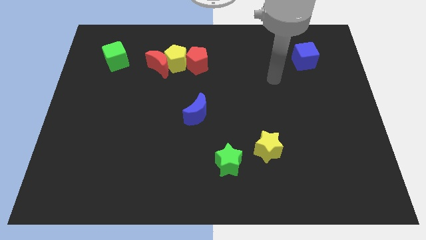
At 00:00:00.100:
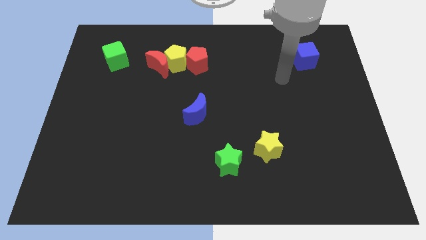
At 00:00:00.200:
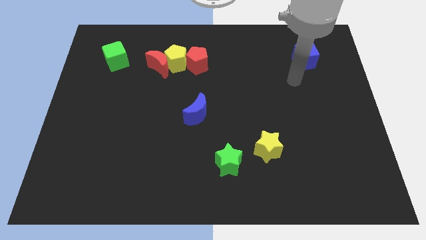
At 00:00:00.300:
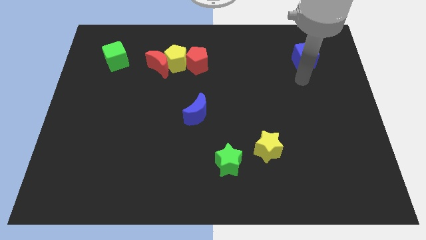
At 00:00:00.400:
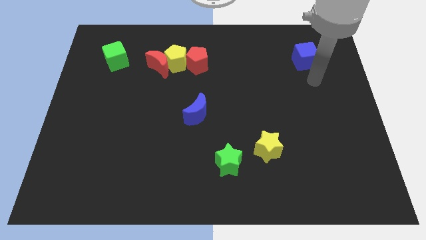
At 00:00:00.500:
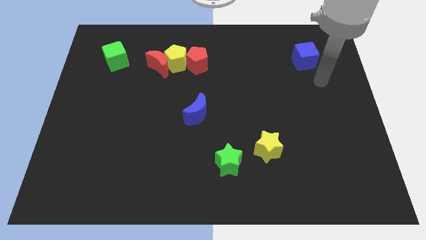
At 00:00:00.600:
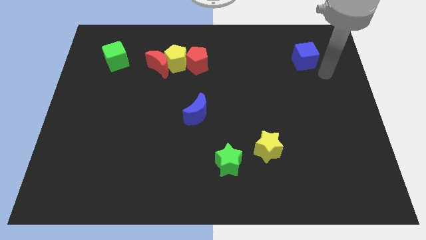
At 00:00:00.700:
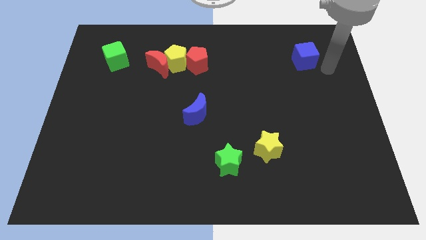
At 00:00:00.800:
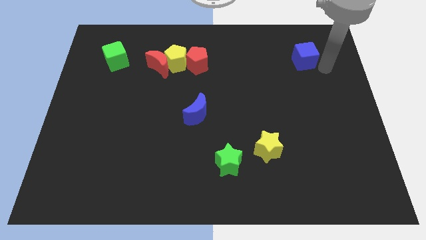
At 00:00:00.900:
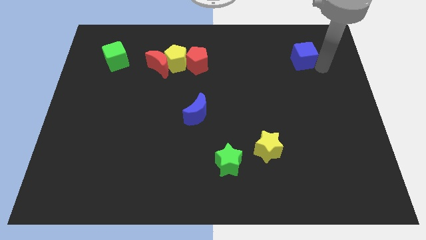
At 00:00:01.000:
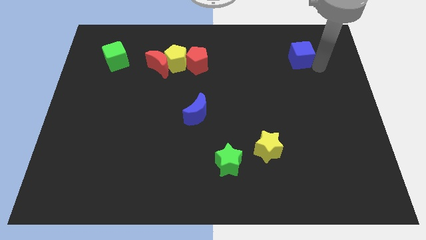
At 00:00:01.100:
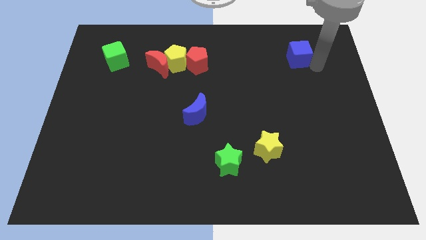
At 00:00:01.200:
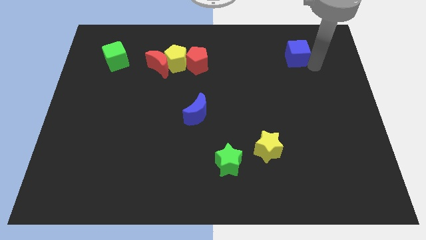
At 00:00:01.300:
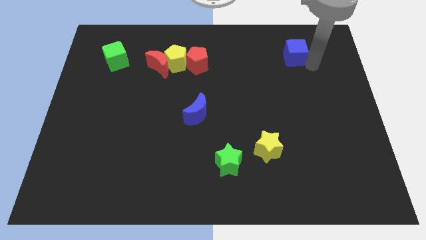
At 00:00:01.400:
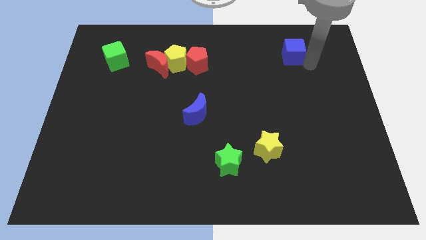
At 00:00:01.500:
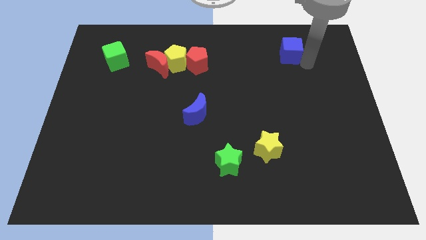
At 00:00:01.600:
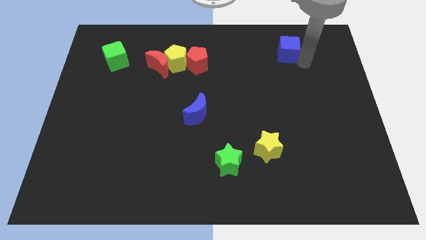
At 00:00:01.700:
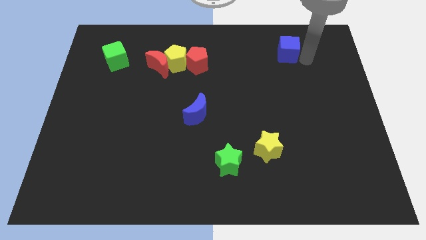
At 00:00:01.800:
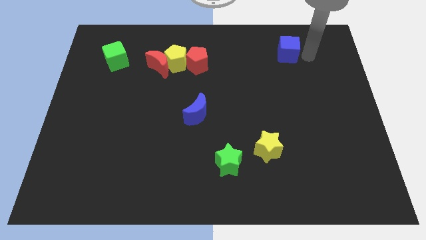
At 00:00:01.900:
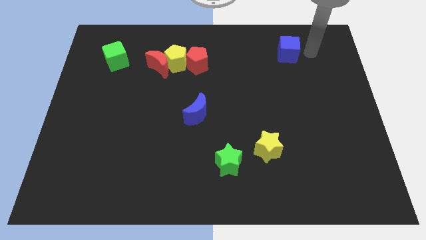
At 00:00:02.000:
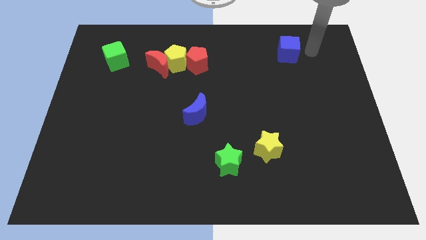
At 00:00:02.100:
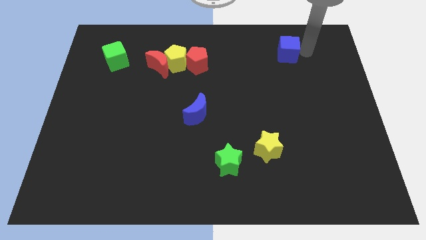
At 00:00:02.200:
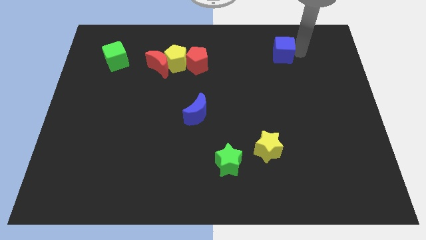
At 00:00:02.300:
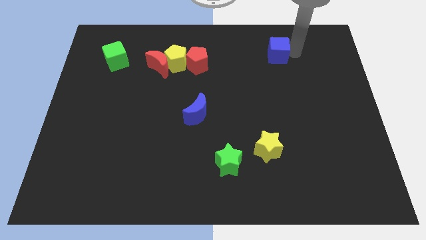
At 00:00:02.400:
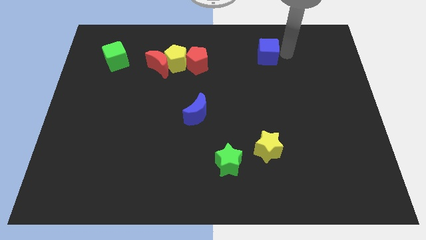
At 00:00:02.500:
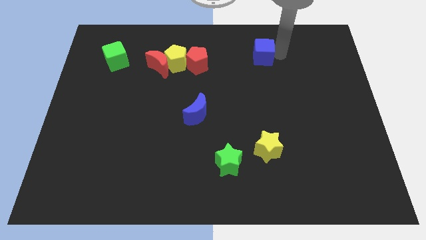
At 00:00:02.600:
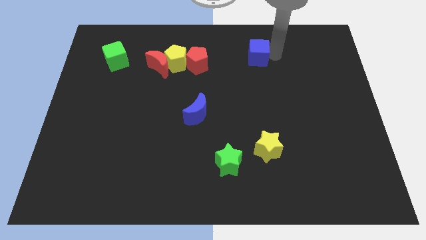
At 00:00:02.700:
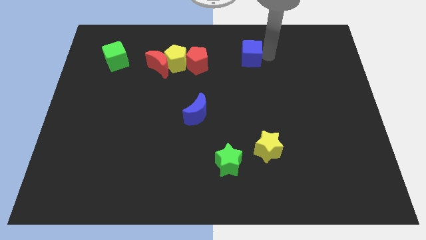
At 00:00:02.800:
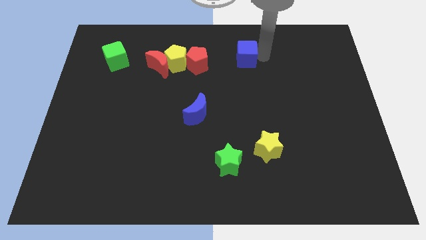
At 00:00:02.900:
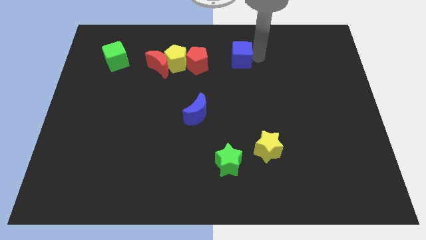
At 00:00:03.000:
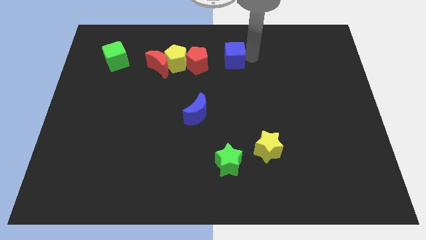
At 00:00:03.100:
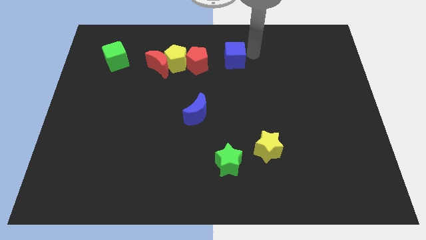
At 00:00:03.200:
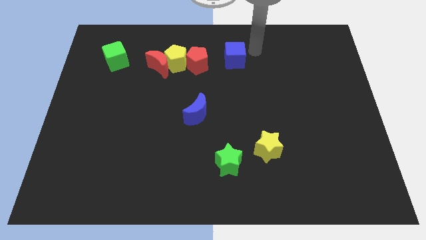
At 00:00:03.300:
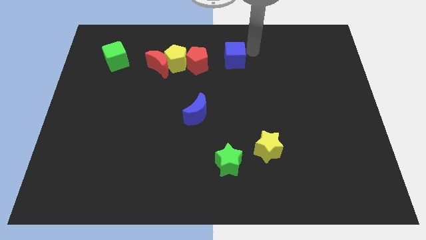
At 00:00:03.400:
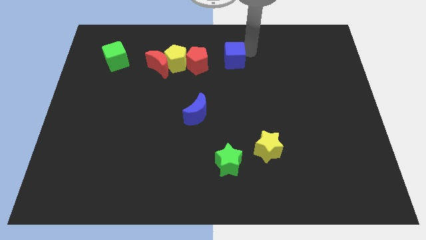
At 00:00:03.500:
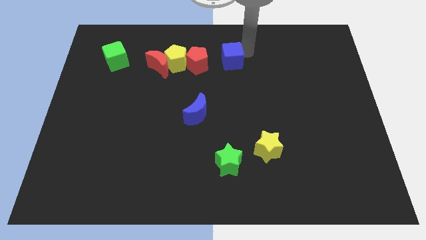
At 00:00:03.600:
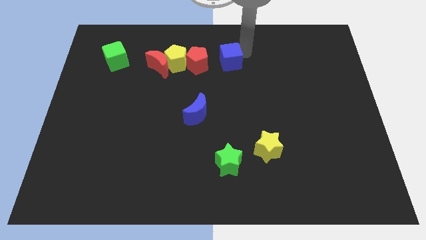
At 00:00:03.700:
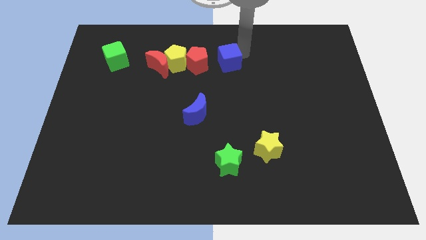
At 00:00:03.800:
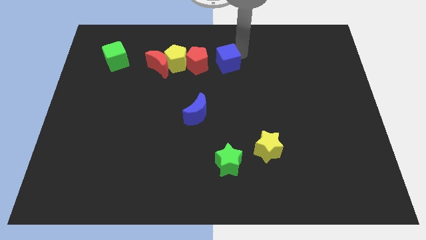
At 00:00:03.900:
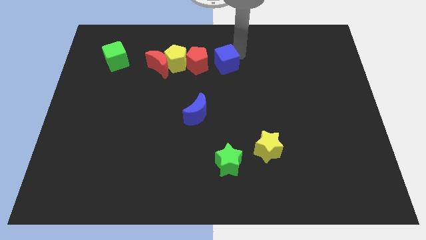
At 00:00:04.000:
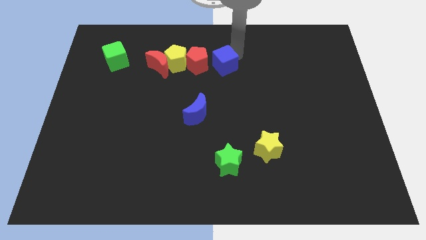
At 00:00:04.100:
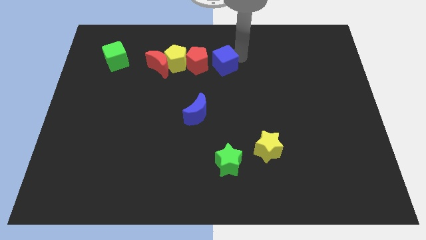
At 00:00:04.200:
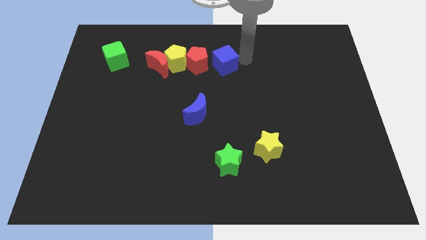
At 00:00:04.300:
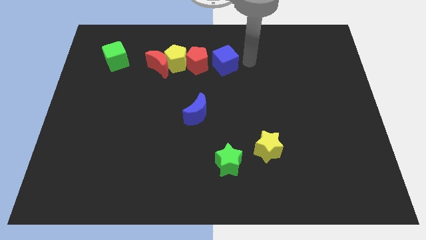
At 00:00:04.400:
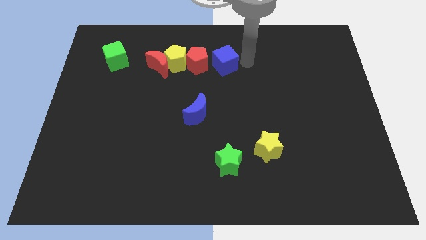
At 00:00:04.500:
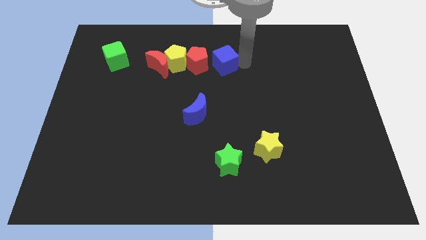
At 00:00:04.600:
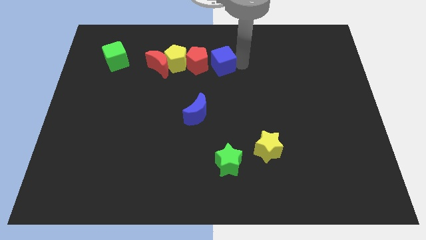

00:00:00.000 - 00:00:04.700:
move the blue cube right of the red moon

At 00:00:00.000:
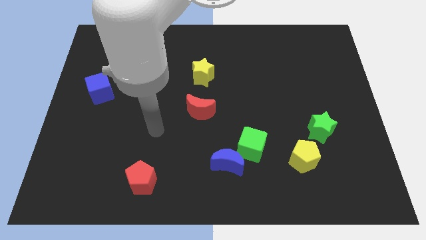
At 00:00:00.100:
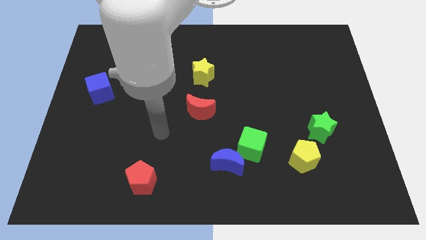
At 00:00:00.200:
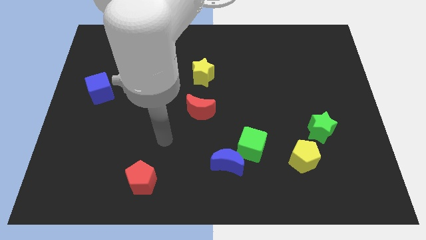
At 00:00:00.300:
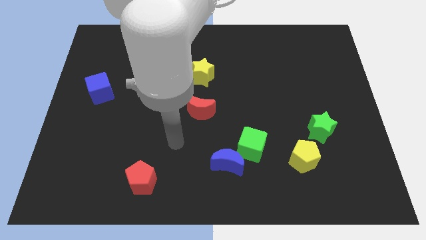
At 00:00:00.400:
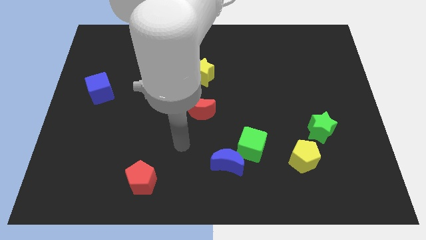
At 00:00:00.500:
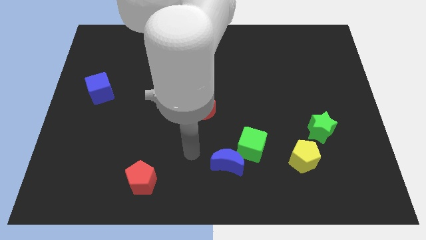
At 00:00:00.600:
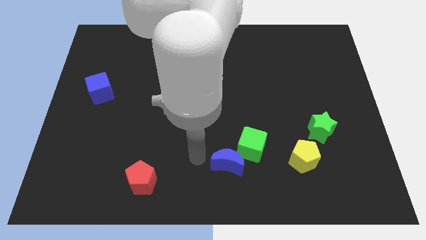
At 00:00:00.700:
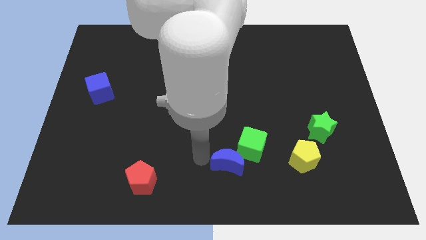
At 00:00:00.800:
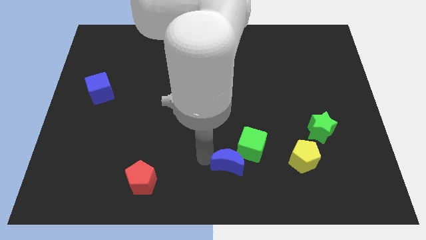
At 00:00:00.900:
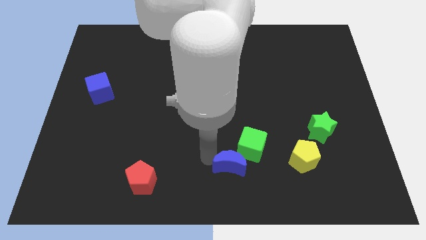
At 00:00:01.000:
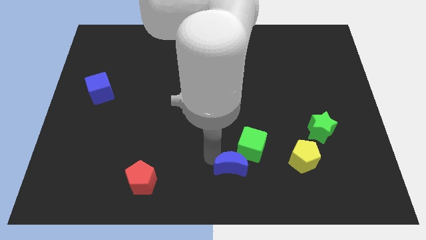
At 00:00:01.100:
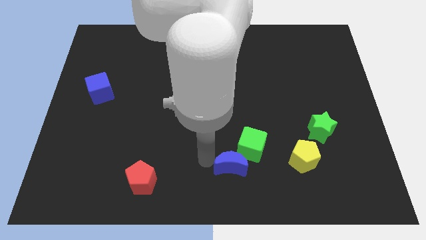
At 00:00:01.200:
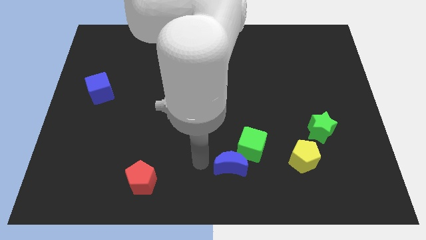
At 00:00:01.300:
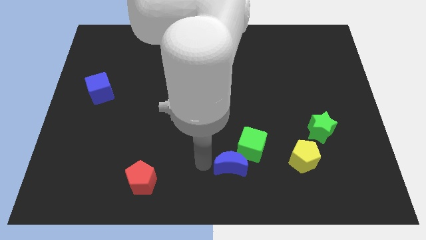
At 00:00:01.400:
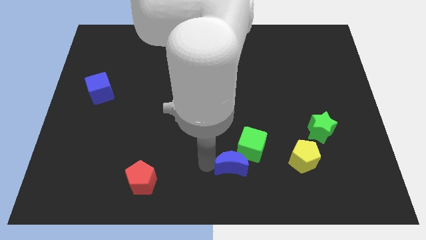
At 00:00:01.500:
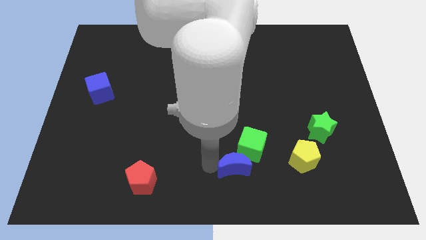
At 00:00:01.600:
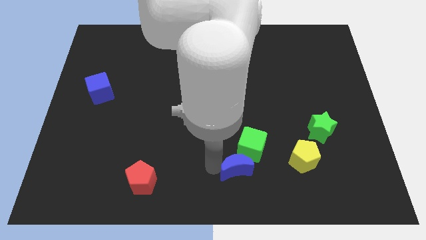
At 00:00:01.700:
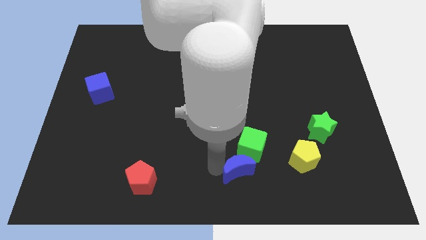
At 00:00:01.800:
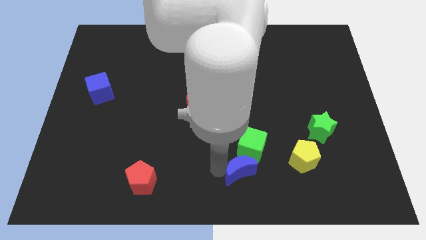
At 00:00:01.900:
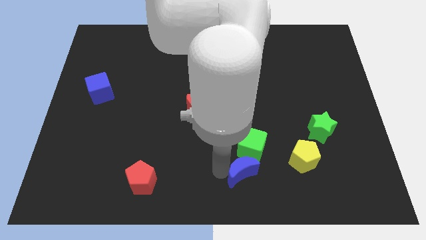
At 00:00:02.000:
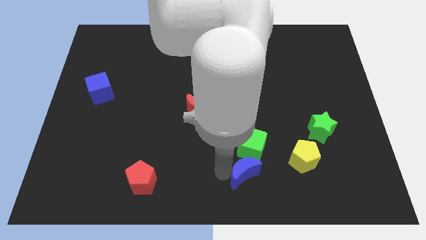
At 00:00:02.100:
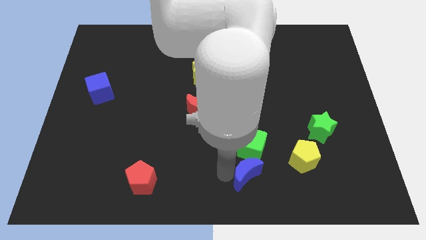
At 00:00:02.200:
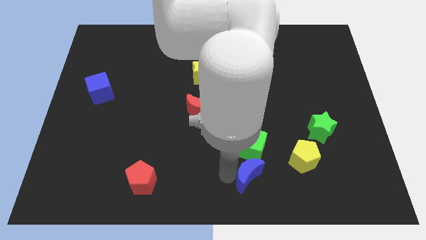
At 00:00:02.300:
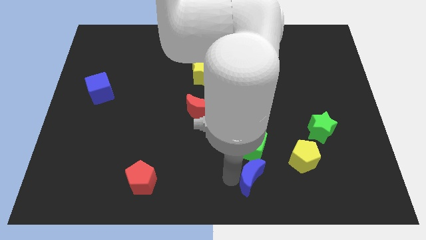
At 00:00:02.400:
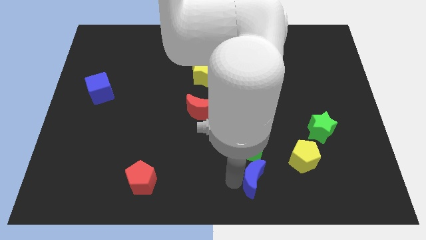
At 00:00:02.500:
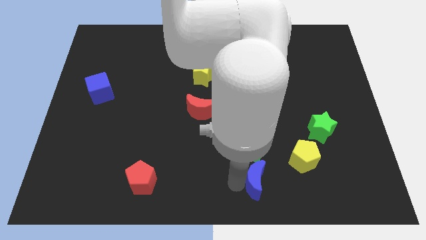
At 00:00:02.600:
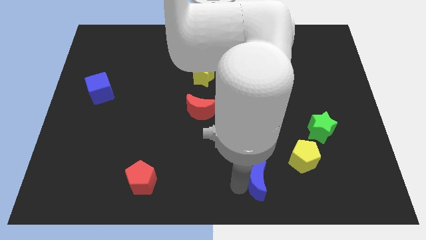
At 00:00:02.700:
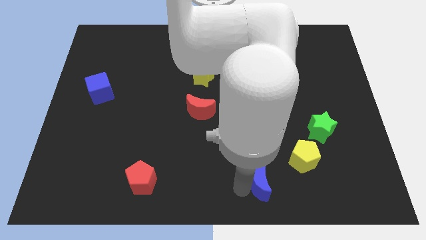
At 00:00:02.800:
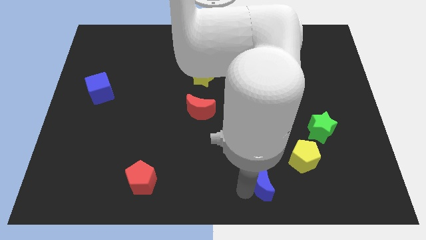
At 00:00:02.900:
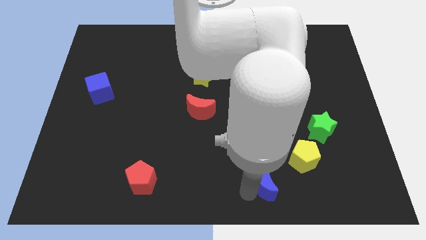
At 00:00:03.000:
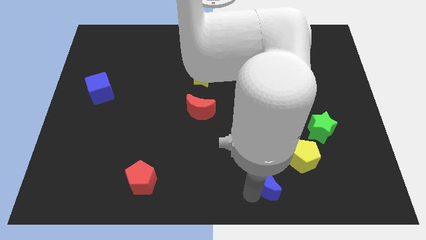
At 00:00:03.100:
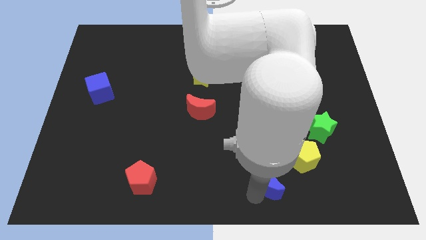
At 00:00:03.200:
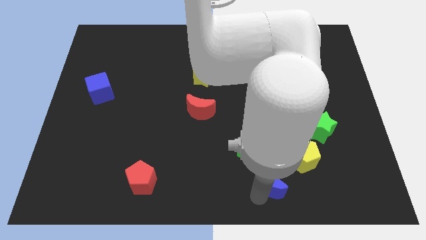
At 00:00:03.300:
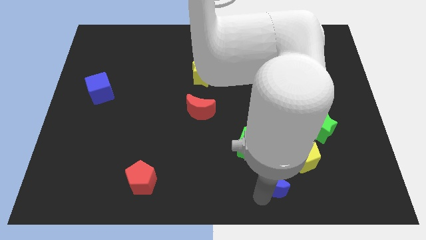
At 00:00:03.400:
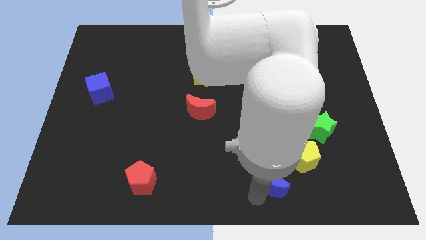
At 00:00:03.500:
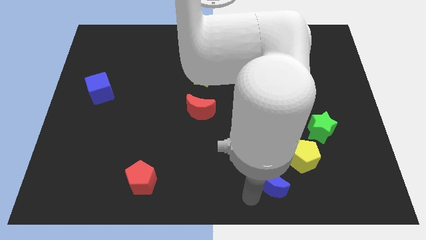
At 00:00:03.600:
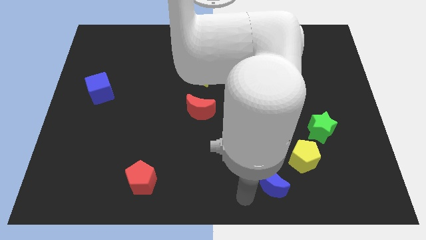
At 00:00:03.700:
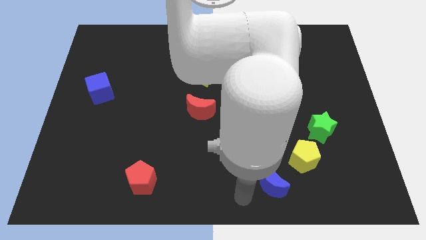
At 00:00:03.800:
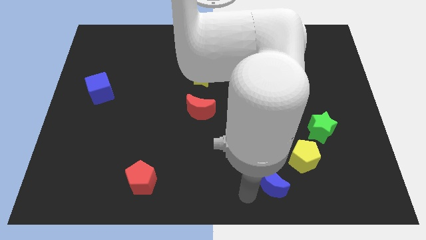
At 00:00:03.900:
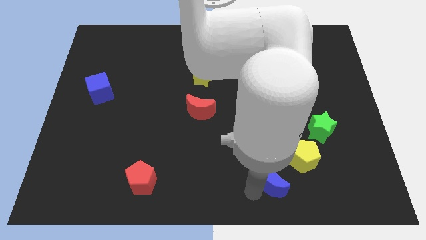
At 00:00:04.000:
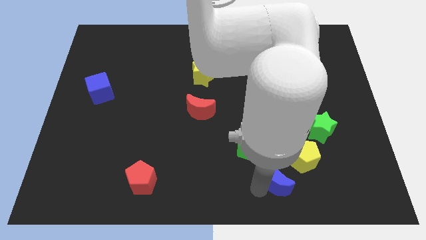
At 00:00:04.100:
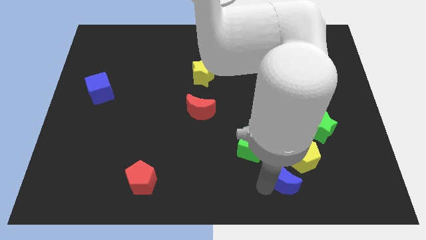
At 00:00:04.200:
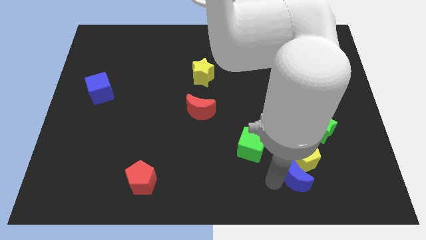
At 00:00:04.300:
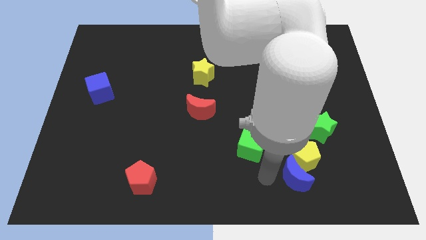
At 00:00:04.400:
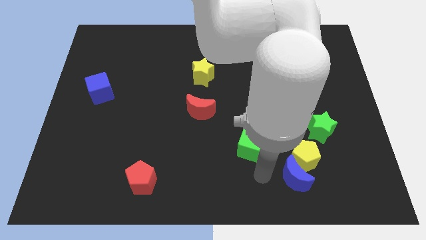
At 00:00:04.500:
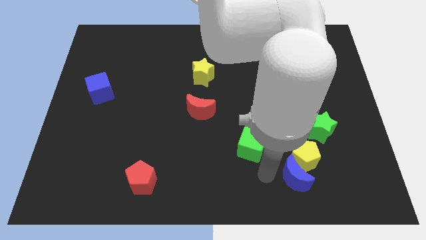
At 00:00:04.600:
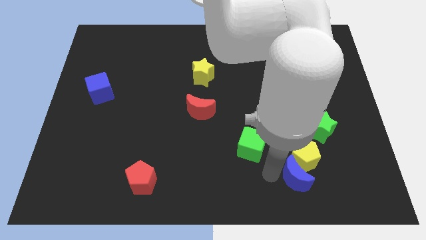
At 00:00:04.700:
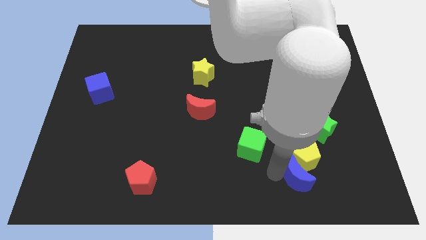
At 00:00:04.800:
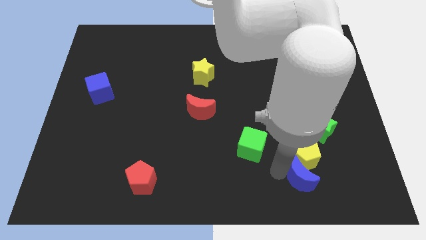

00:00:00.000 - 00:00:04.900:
put the blue moon diagonally down and to the right of the yellow pentagon
